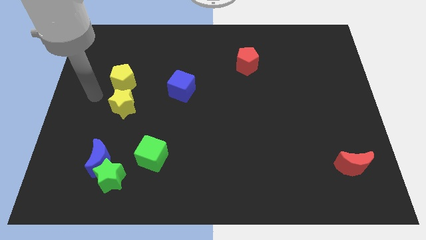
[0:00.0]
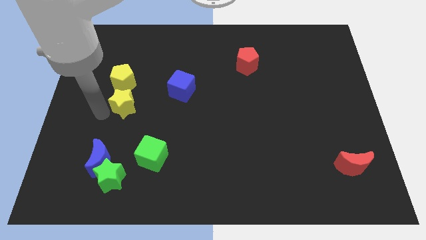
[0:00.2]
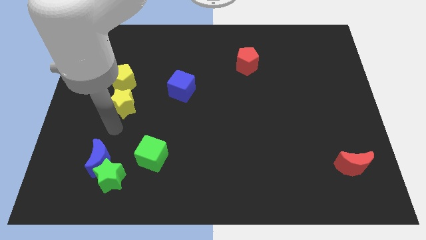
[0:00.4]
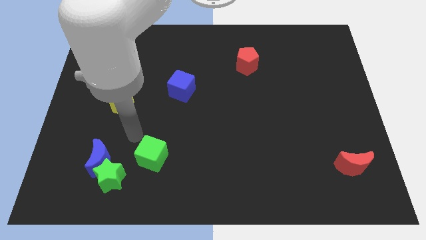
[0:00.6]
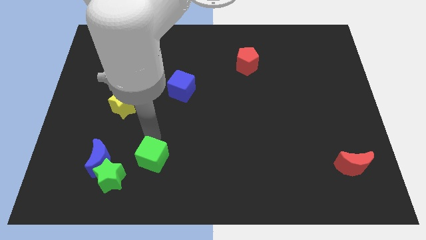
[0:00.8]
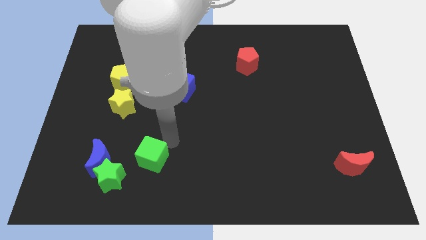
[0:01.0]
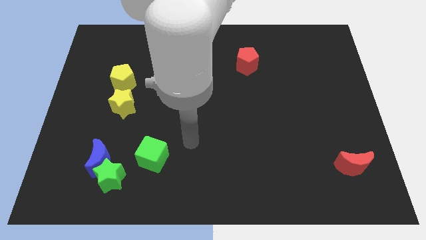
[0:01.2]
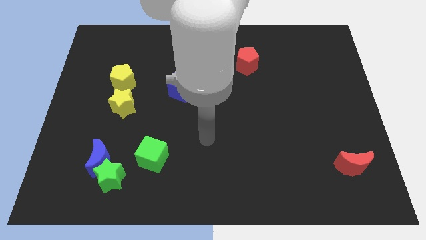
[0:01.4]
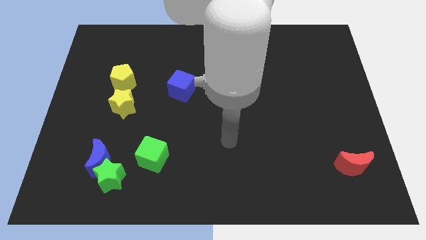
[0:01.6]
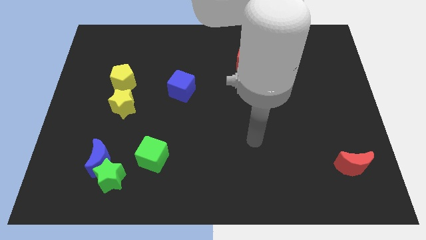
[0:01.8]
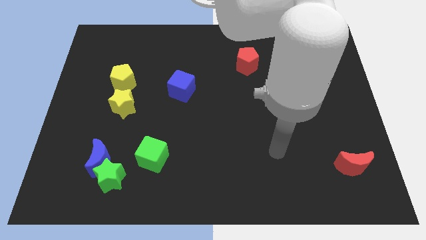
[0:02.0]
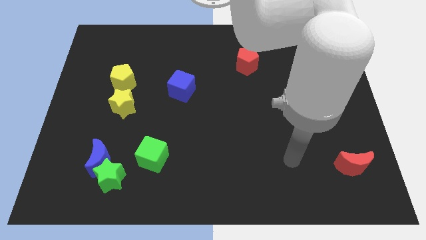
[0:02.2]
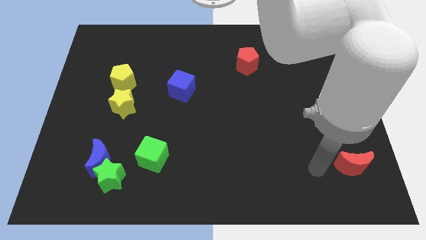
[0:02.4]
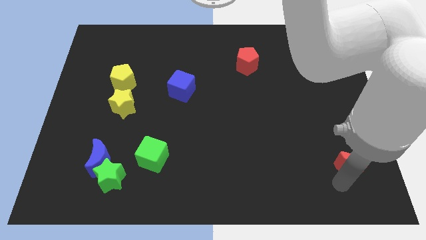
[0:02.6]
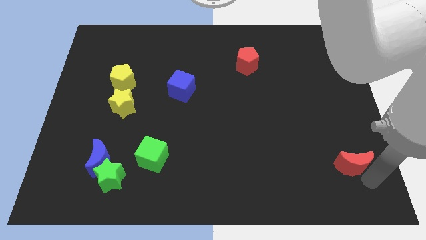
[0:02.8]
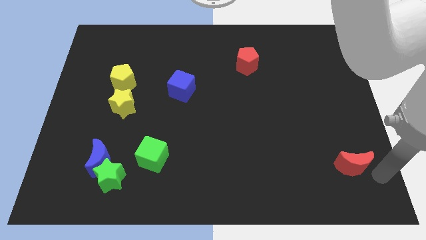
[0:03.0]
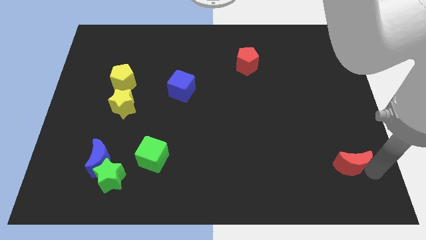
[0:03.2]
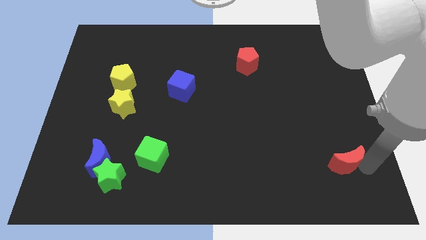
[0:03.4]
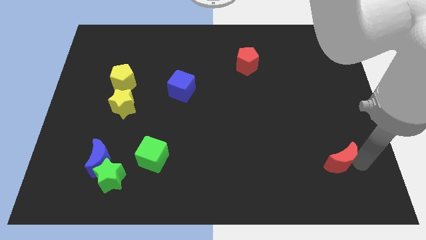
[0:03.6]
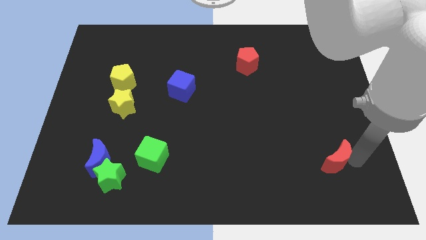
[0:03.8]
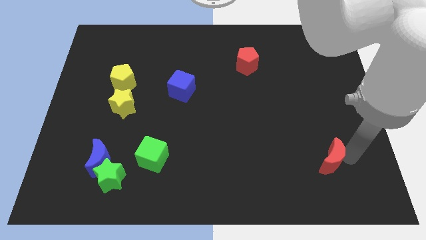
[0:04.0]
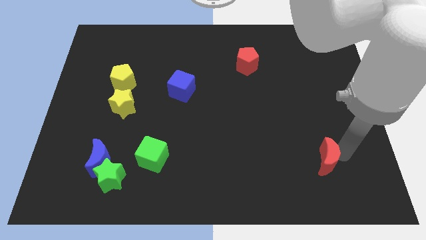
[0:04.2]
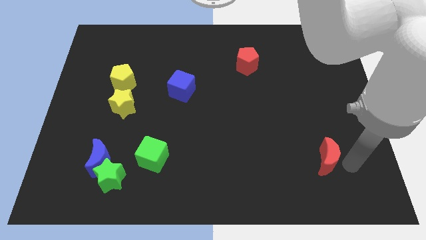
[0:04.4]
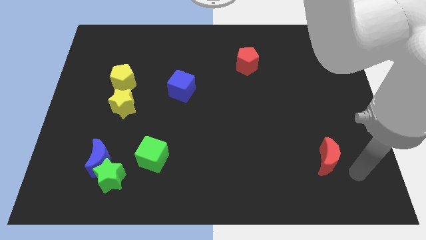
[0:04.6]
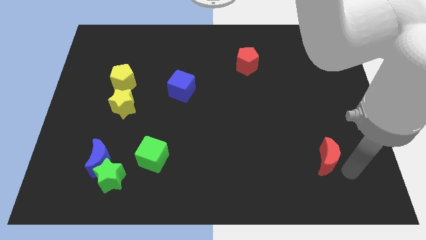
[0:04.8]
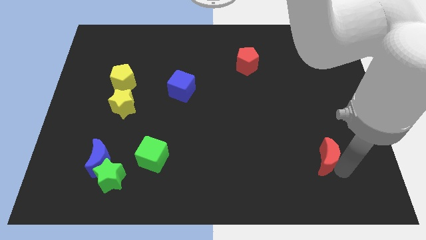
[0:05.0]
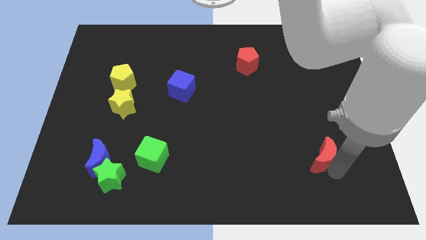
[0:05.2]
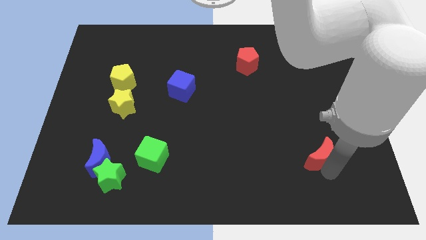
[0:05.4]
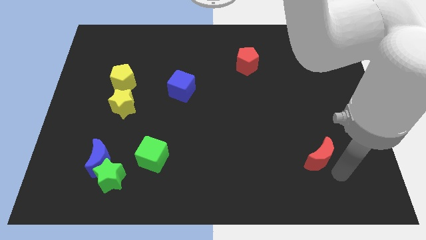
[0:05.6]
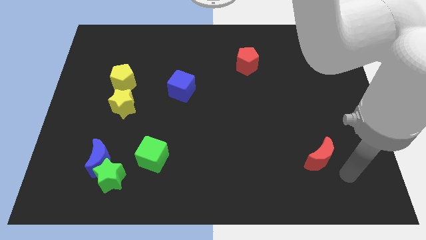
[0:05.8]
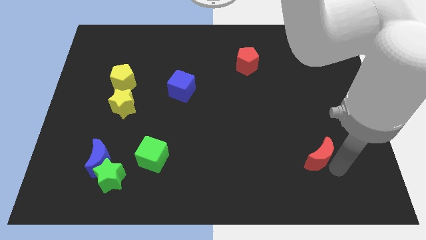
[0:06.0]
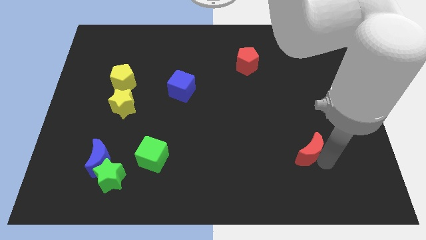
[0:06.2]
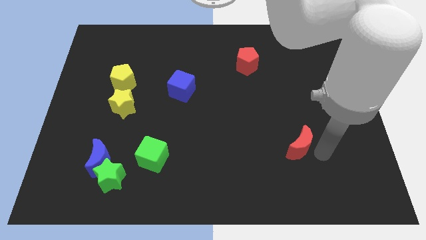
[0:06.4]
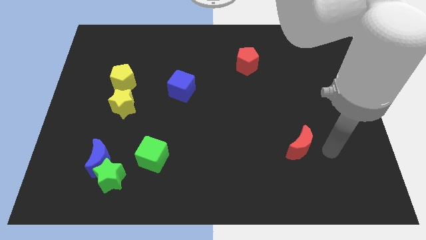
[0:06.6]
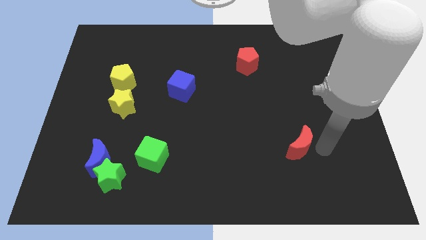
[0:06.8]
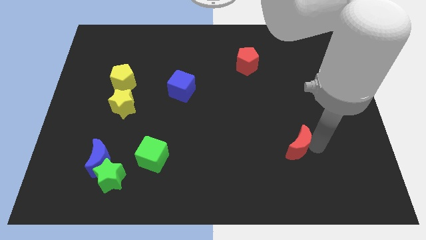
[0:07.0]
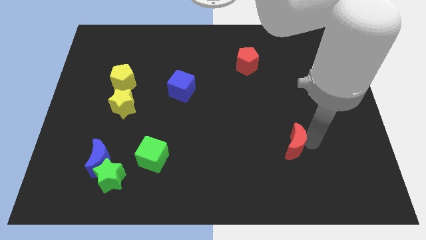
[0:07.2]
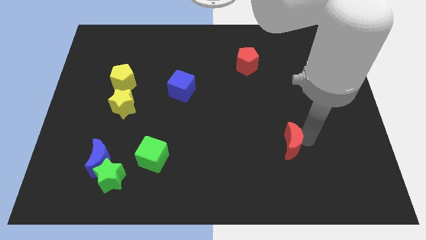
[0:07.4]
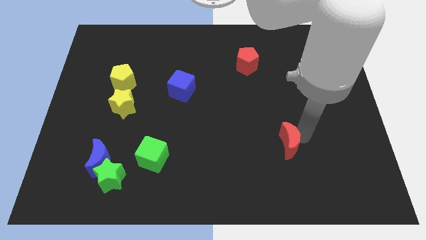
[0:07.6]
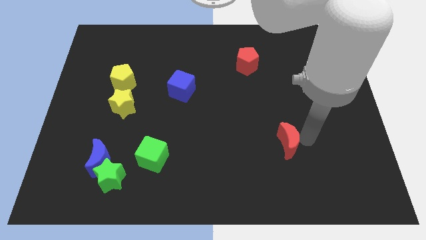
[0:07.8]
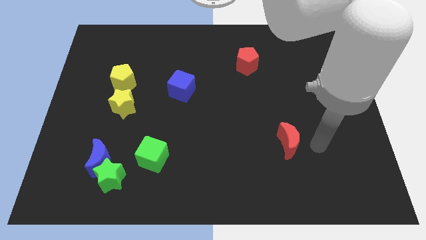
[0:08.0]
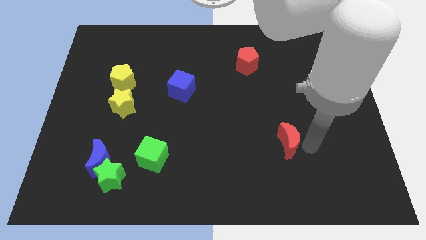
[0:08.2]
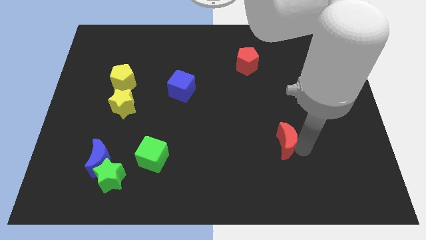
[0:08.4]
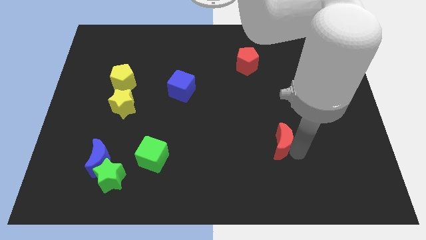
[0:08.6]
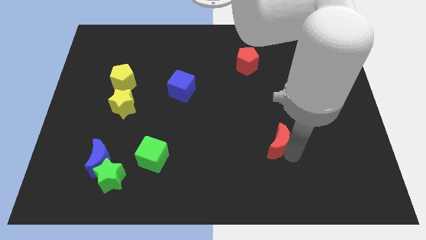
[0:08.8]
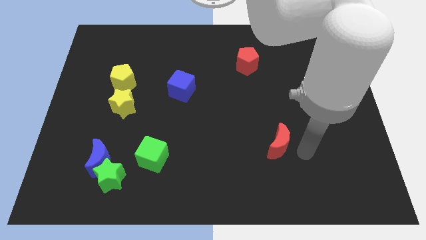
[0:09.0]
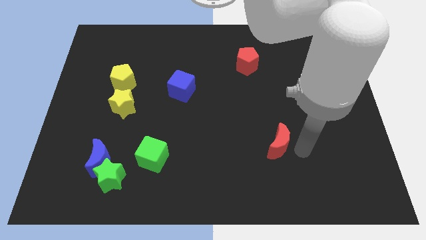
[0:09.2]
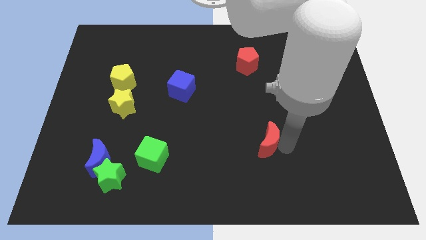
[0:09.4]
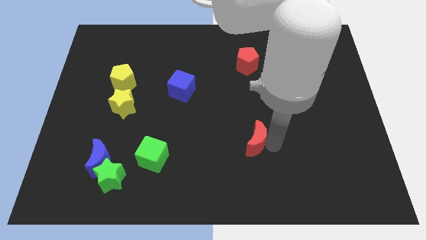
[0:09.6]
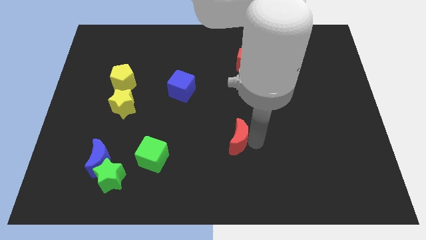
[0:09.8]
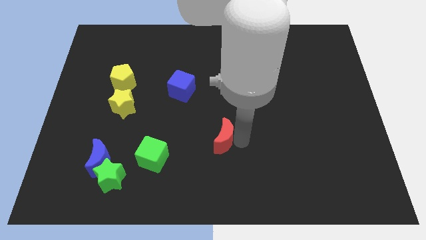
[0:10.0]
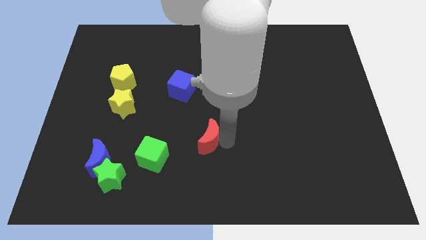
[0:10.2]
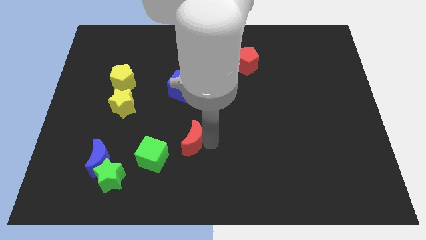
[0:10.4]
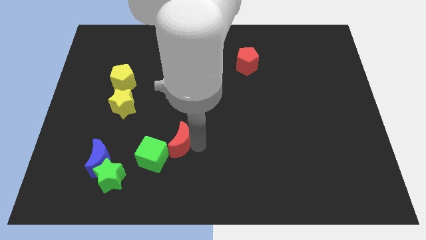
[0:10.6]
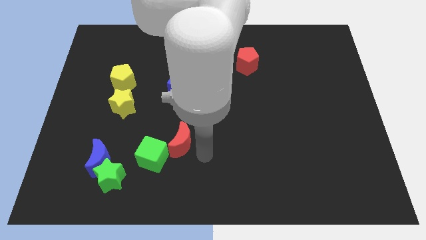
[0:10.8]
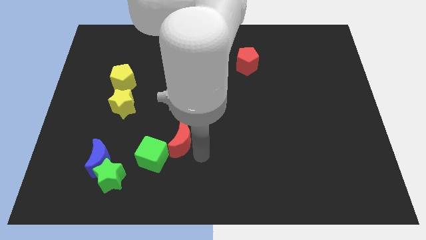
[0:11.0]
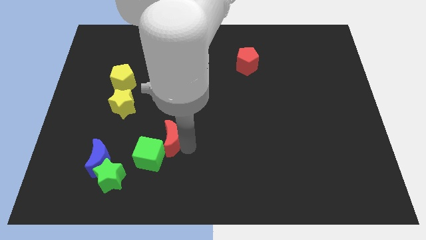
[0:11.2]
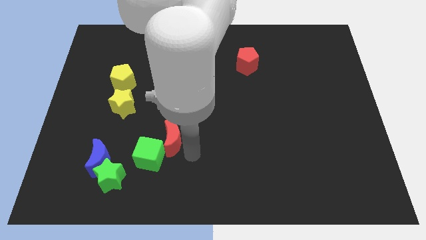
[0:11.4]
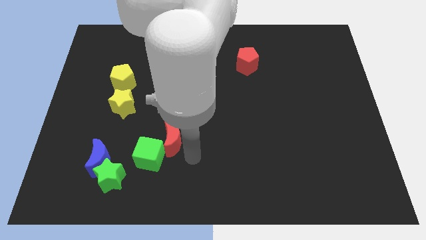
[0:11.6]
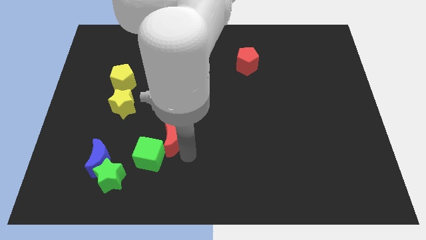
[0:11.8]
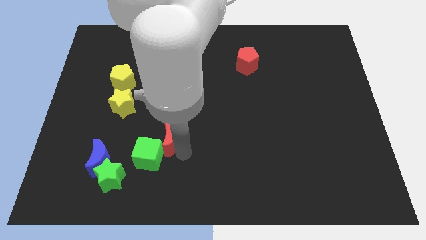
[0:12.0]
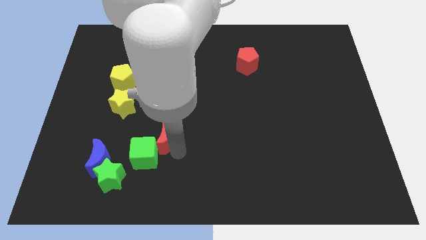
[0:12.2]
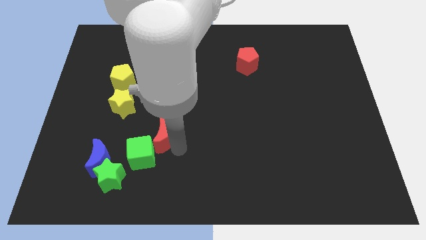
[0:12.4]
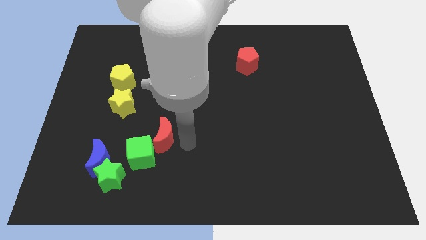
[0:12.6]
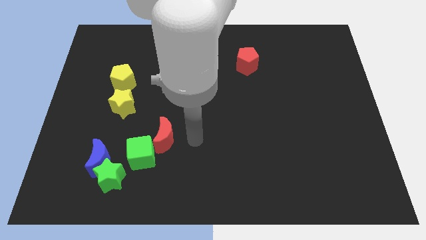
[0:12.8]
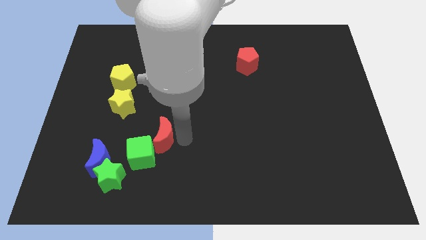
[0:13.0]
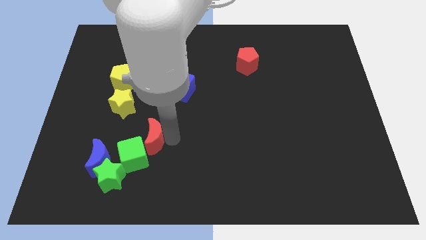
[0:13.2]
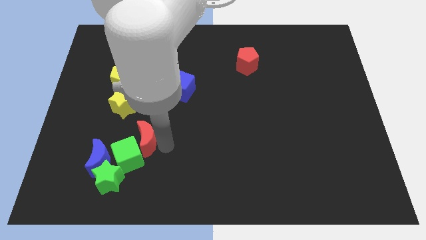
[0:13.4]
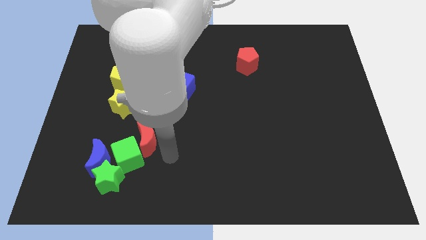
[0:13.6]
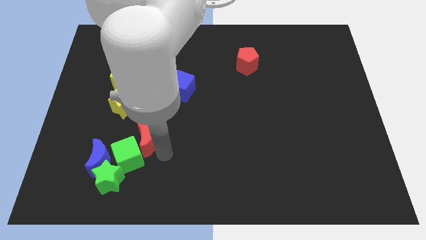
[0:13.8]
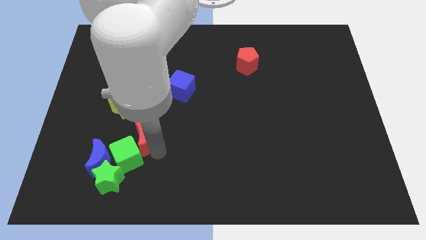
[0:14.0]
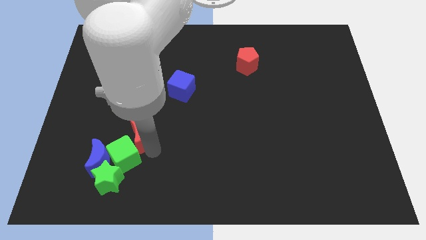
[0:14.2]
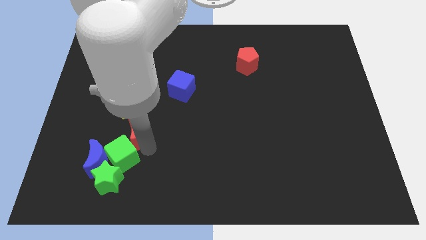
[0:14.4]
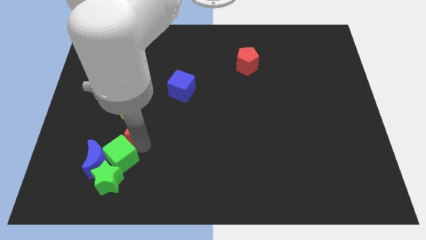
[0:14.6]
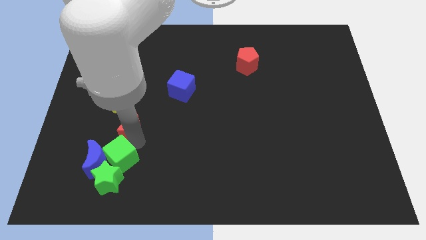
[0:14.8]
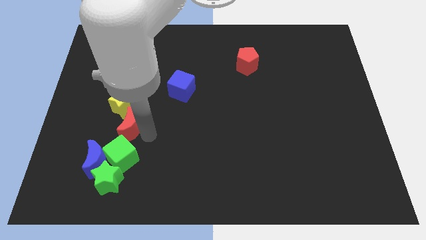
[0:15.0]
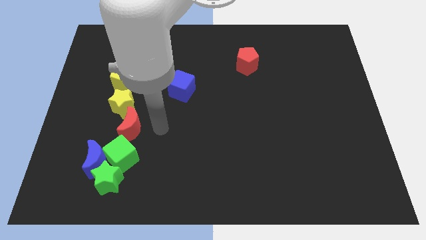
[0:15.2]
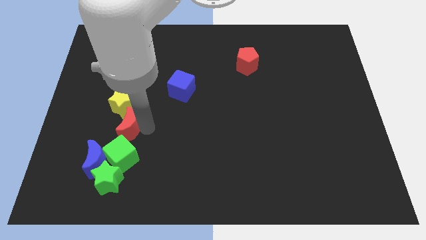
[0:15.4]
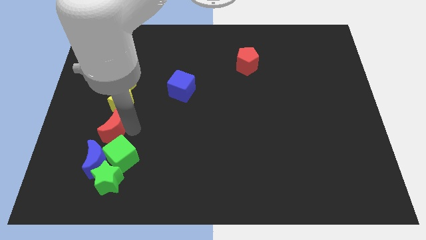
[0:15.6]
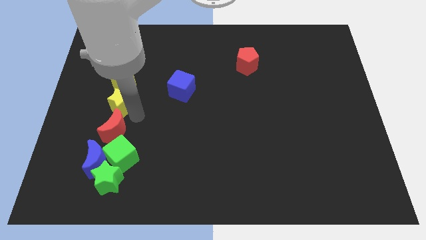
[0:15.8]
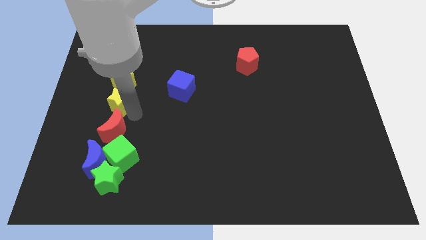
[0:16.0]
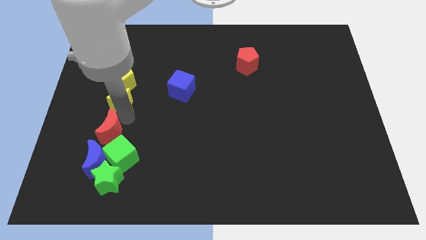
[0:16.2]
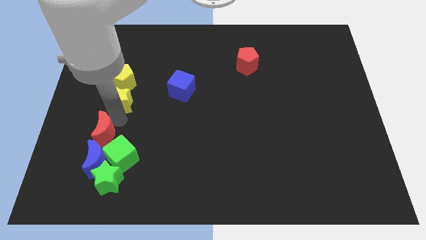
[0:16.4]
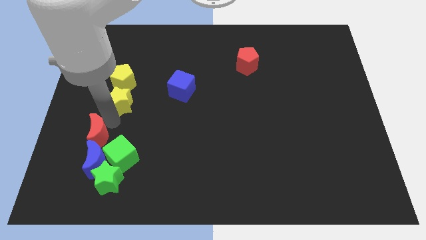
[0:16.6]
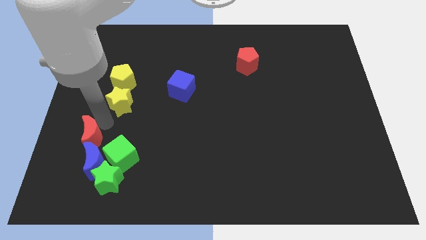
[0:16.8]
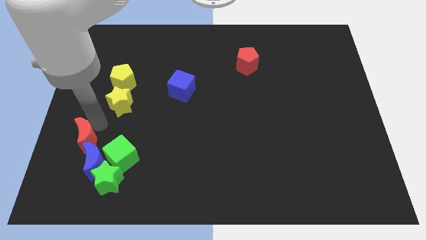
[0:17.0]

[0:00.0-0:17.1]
push the red moon to the left side of the green cube
